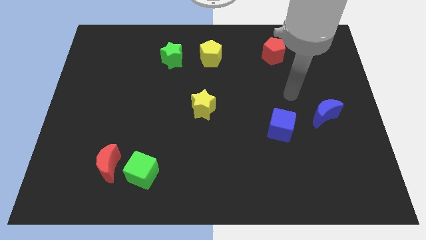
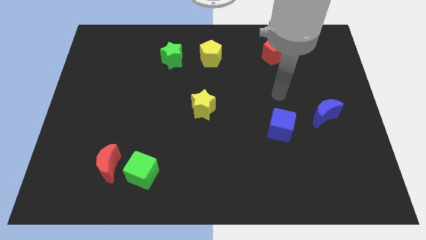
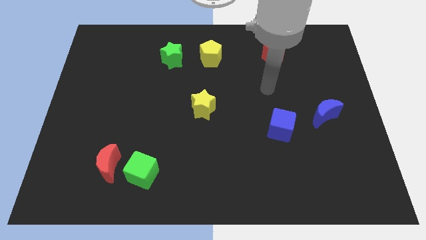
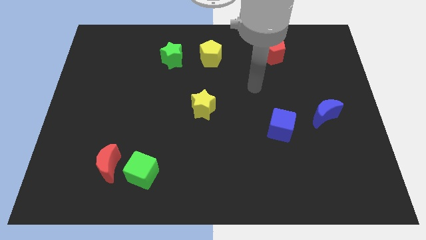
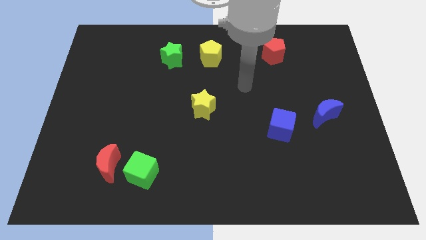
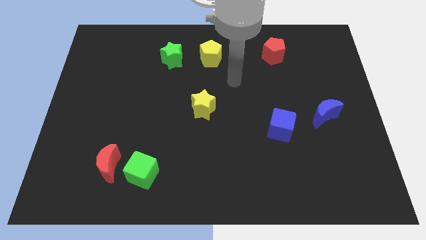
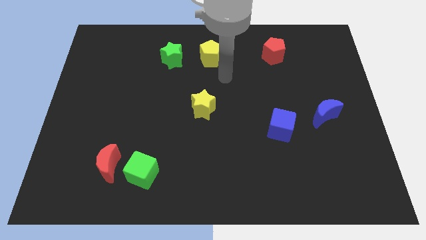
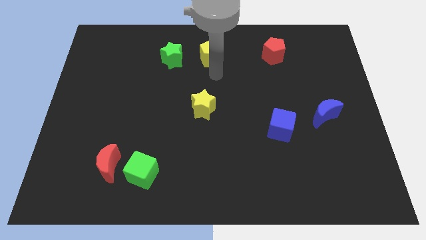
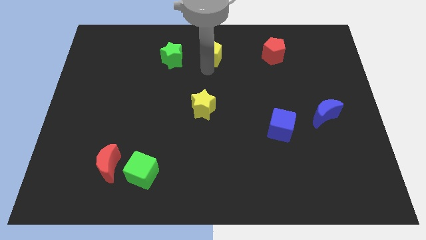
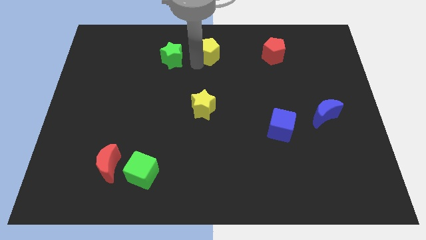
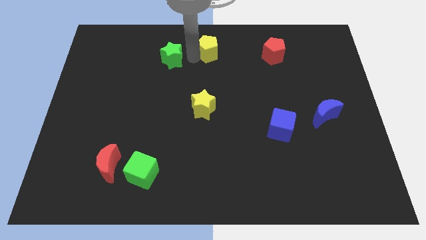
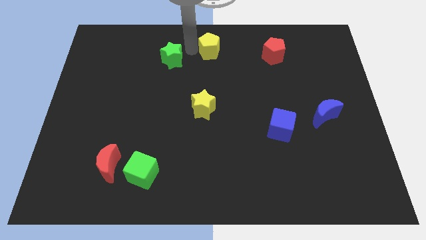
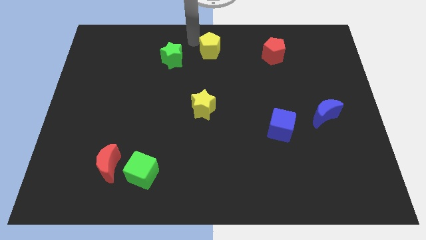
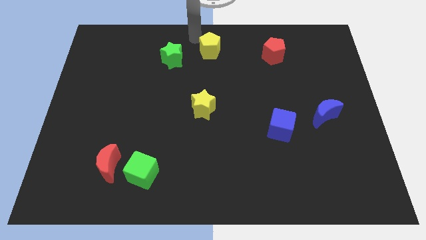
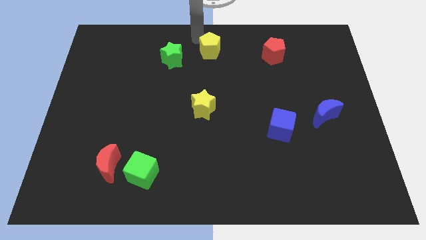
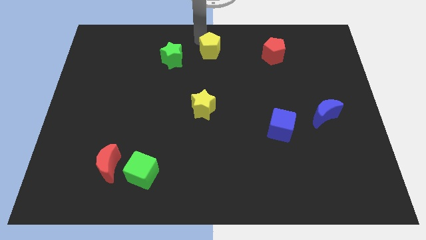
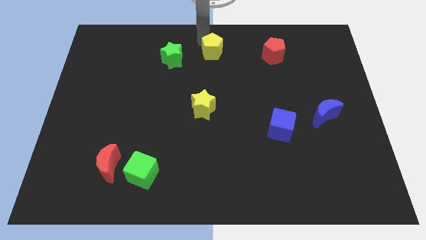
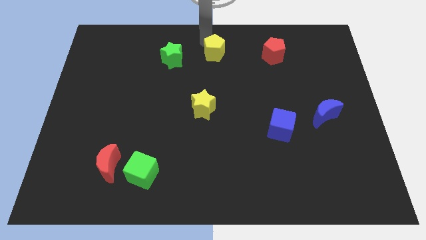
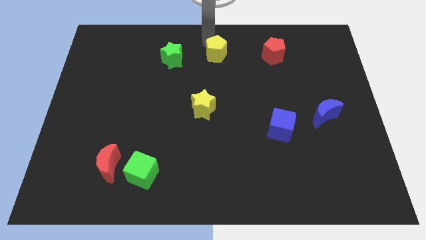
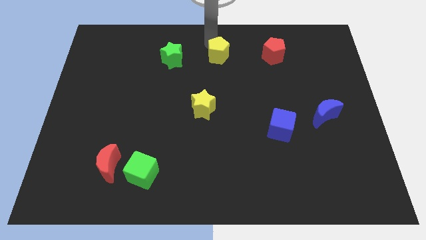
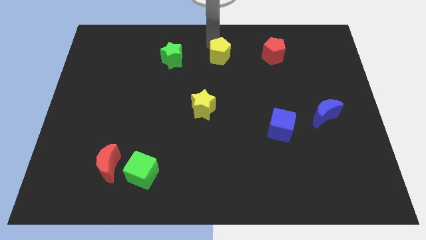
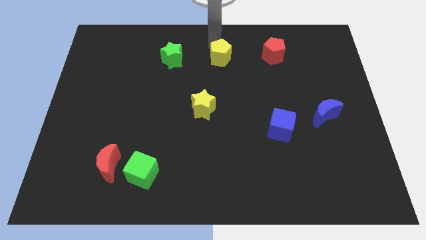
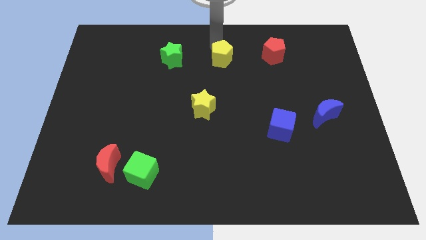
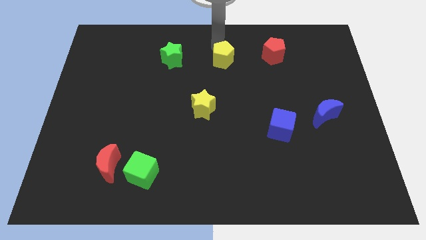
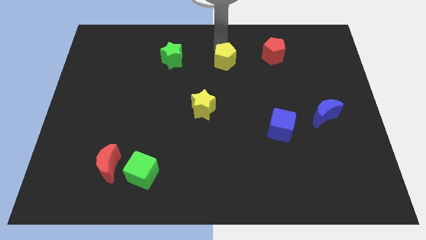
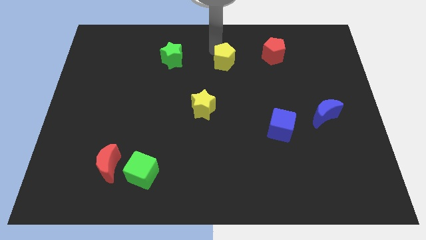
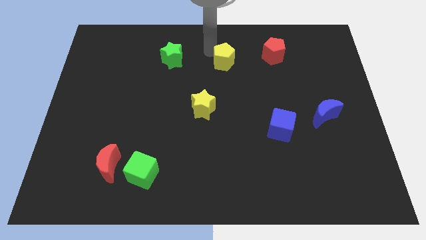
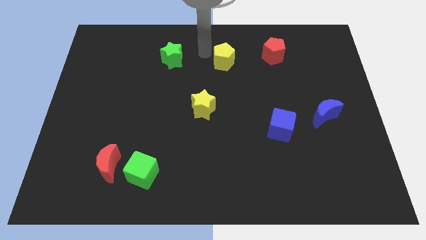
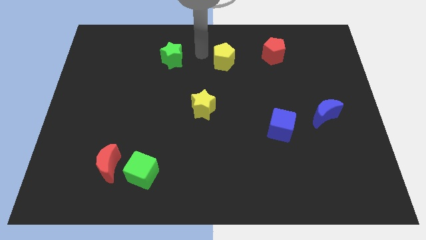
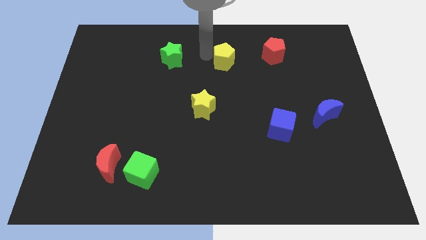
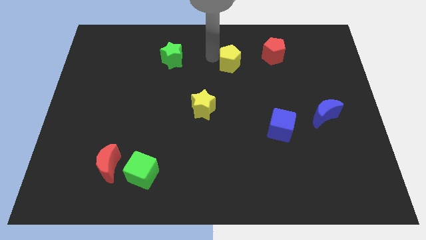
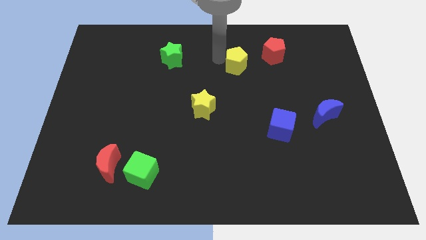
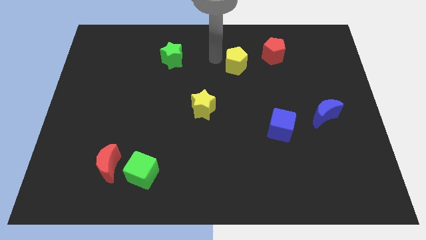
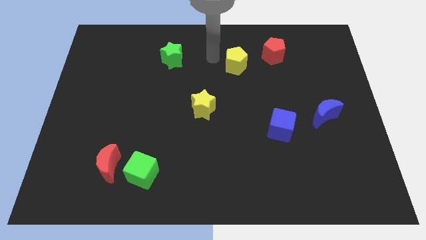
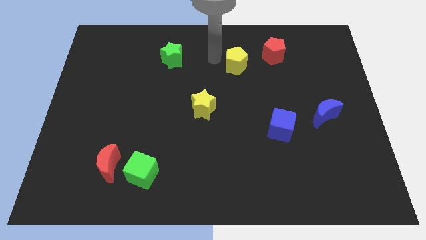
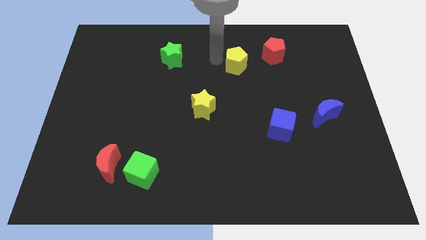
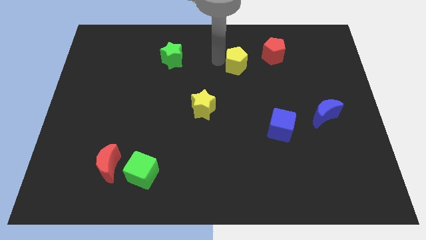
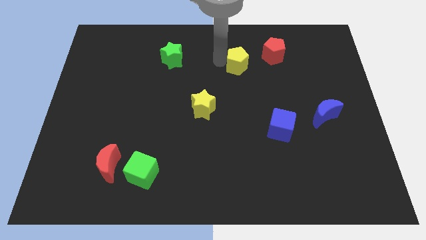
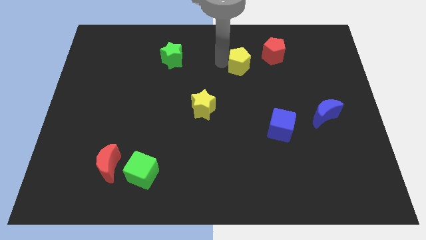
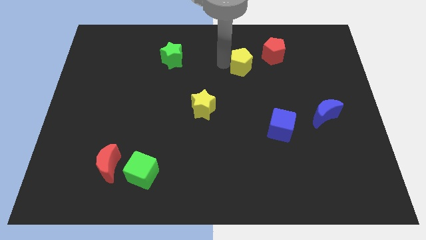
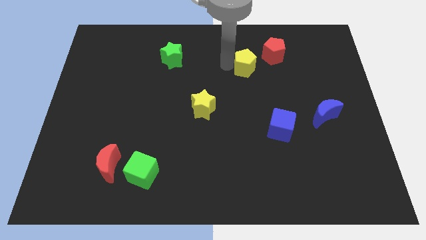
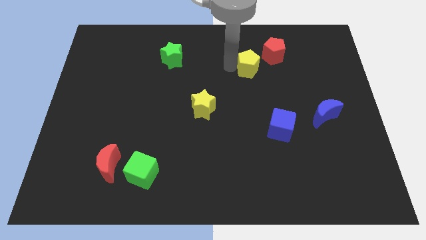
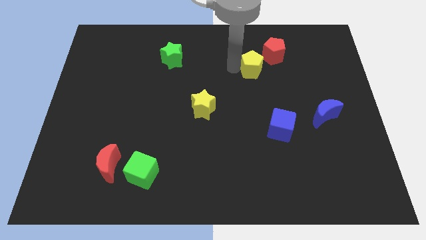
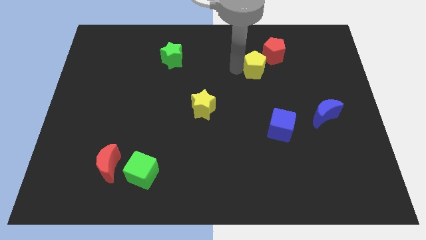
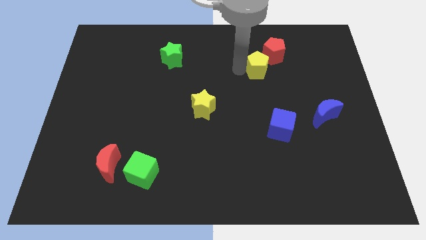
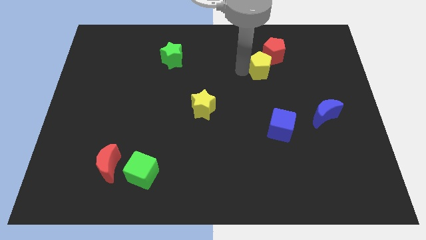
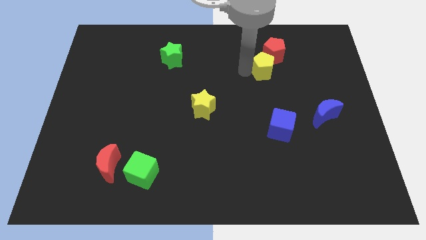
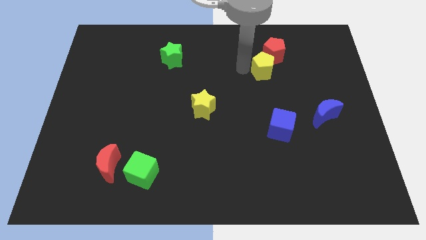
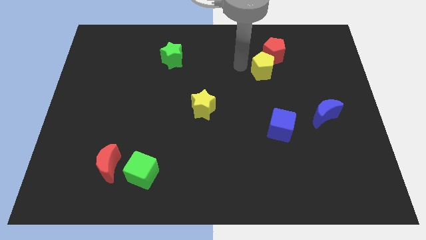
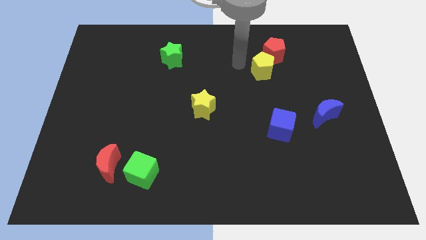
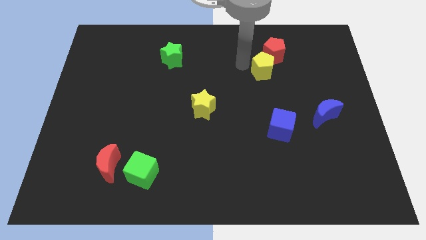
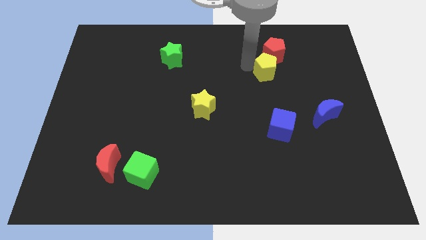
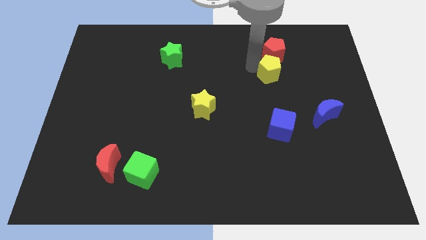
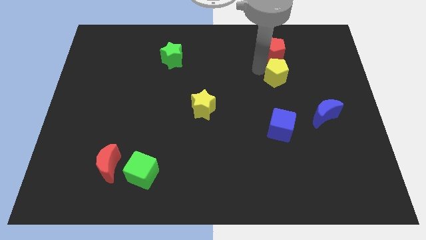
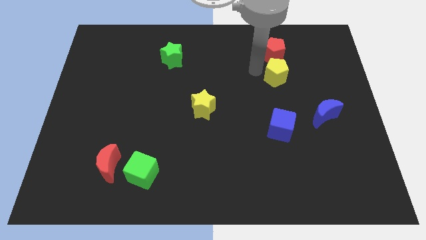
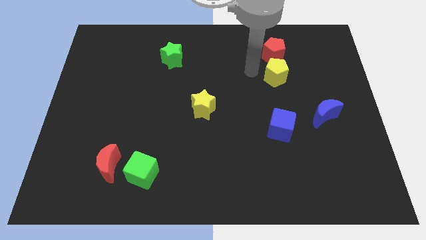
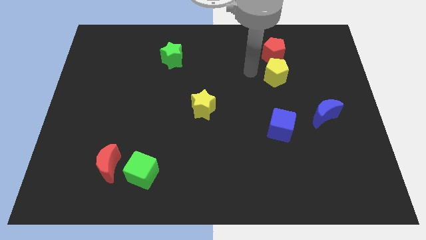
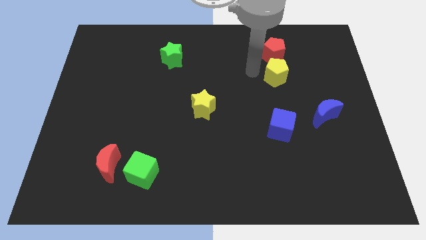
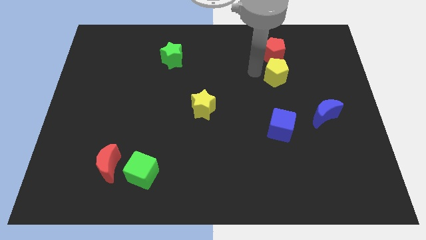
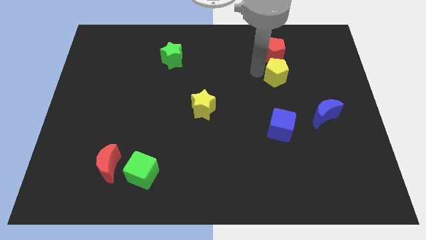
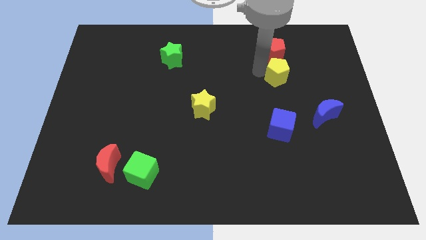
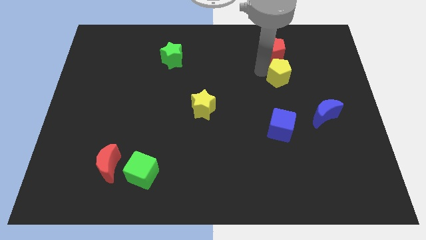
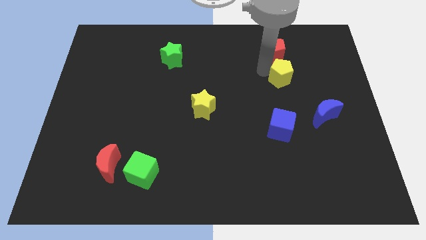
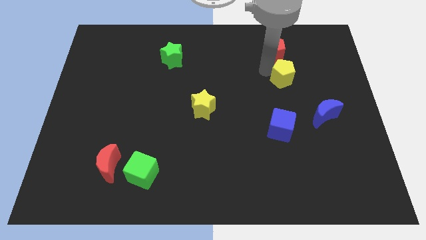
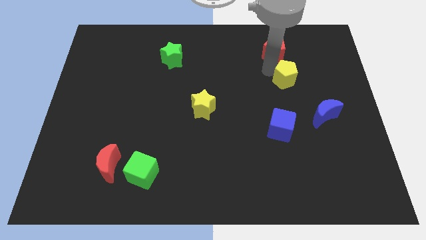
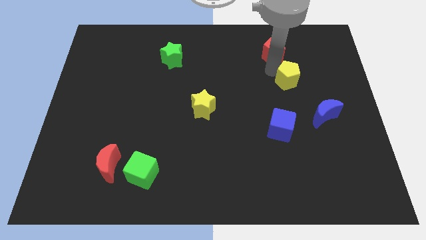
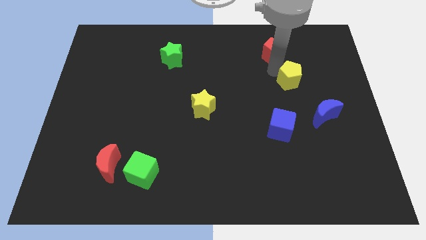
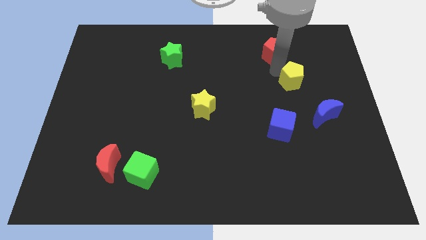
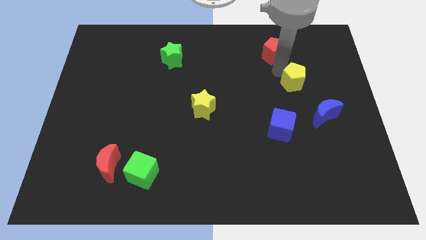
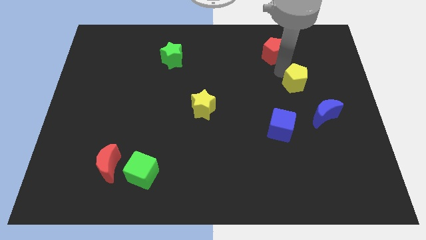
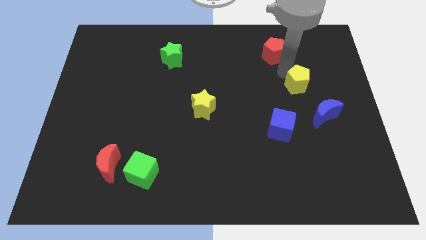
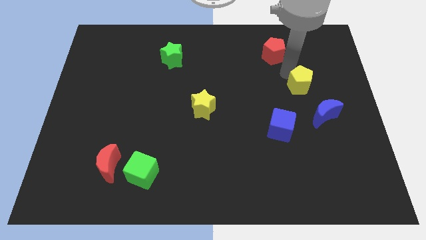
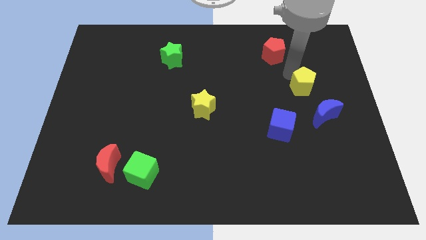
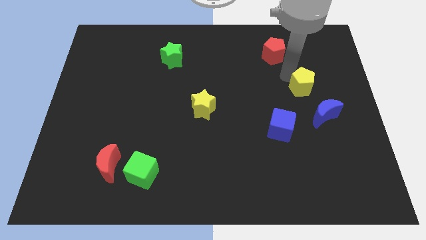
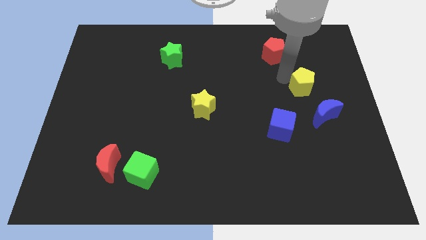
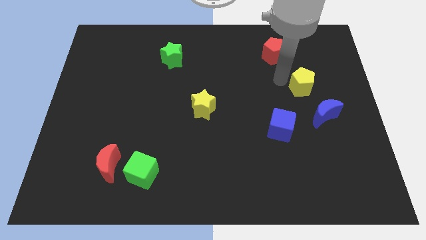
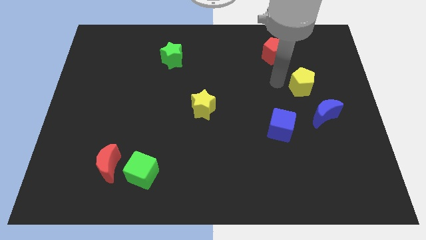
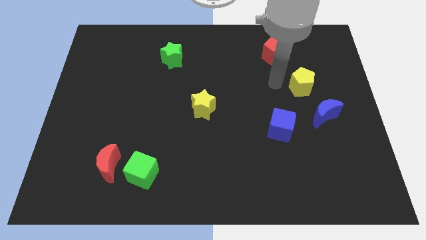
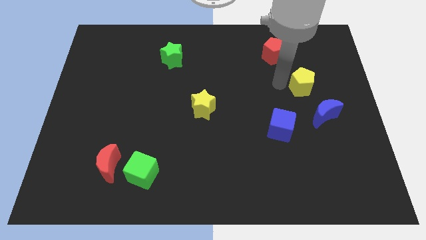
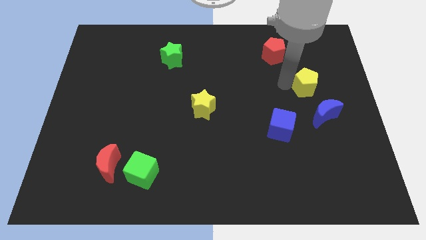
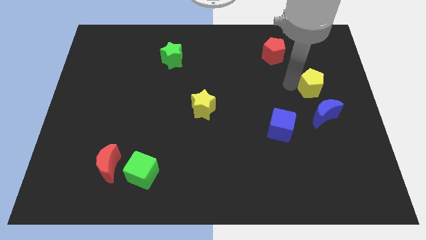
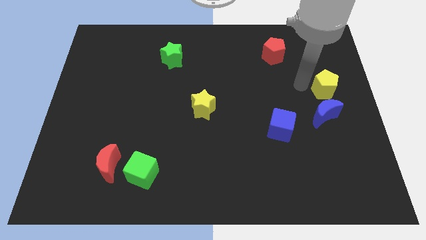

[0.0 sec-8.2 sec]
put the yellow pentagon to the center right
